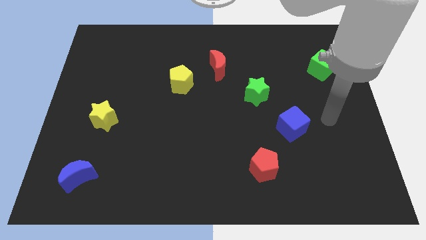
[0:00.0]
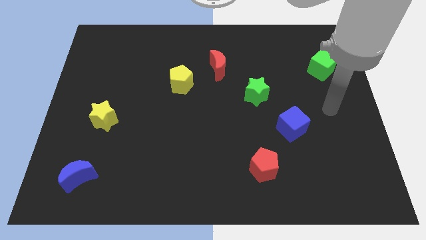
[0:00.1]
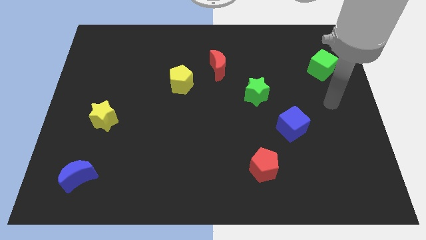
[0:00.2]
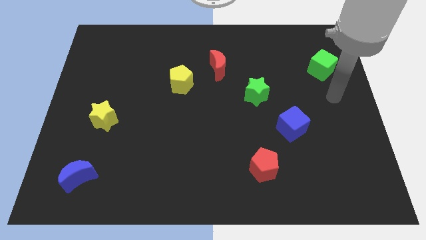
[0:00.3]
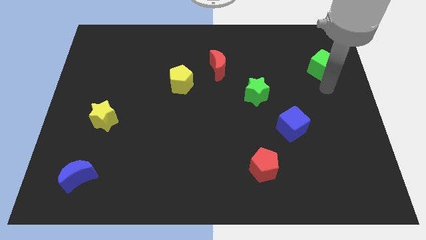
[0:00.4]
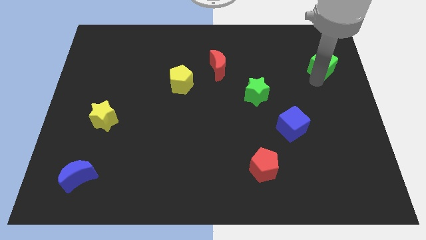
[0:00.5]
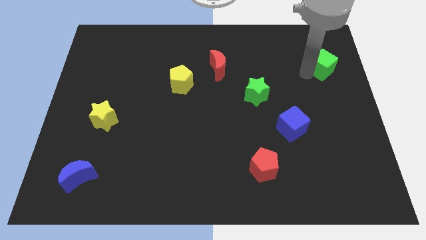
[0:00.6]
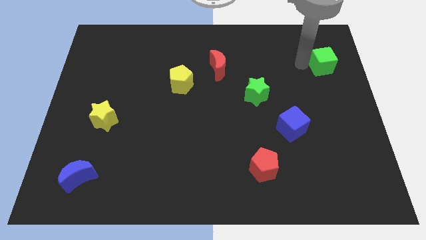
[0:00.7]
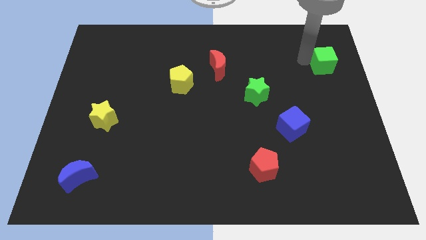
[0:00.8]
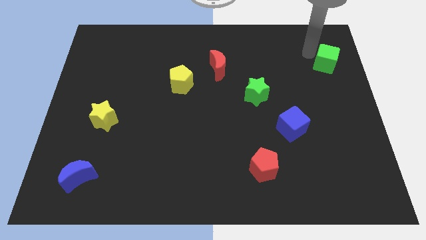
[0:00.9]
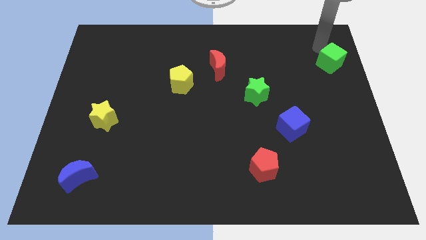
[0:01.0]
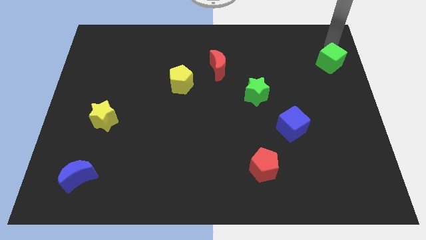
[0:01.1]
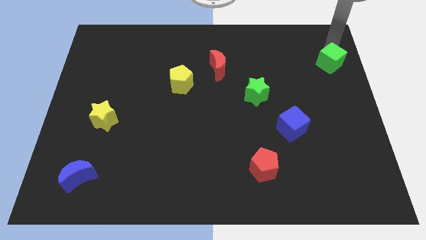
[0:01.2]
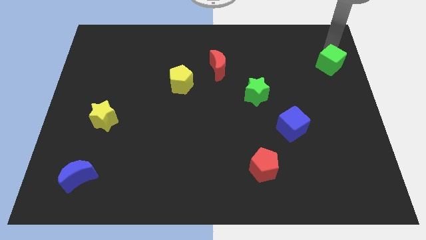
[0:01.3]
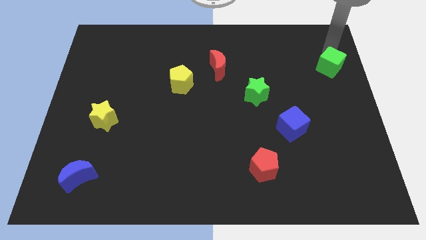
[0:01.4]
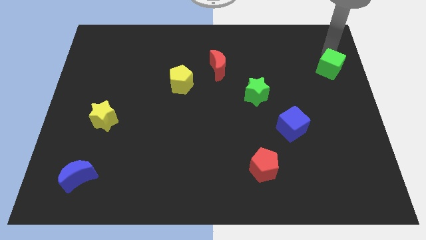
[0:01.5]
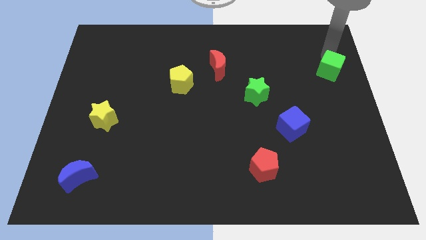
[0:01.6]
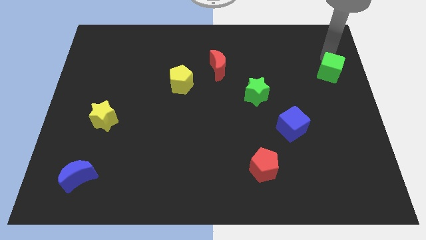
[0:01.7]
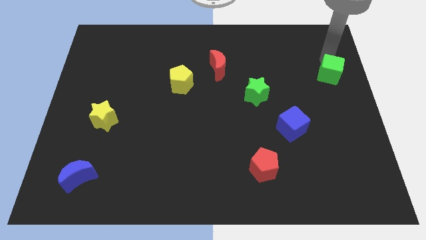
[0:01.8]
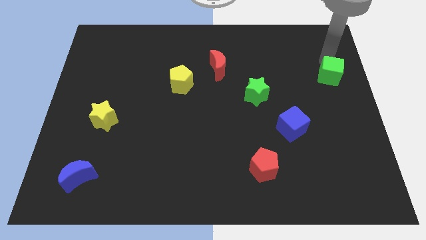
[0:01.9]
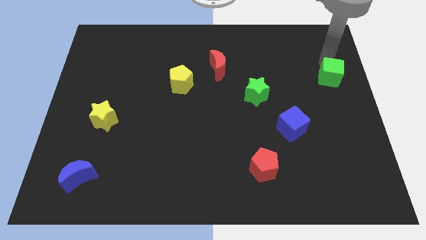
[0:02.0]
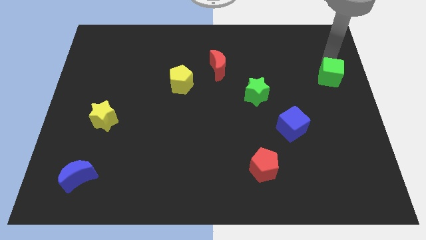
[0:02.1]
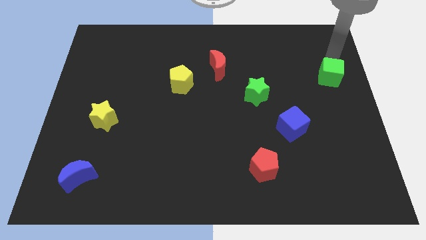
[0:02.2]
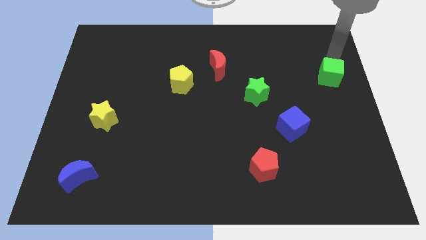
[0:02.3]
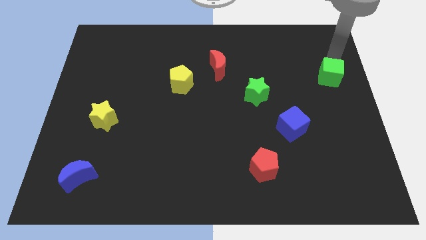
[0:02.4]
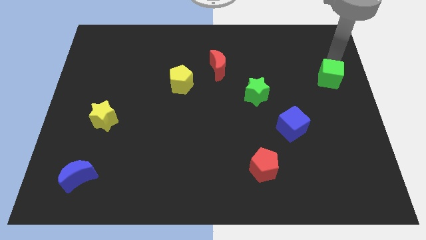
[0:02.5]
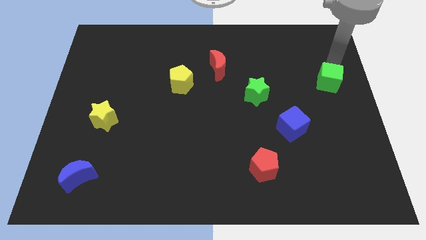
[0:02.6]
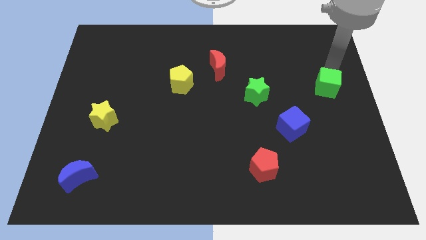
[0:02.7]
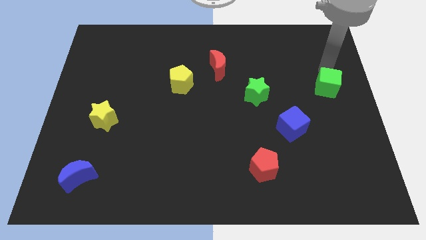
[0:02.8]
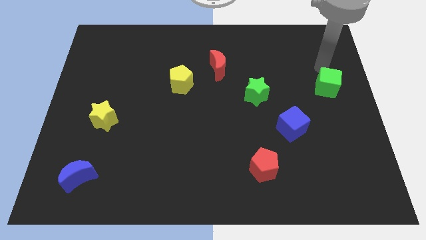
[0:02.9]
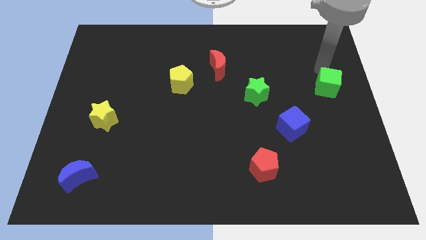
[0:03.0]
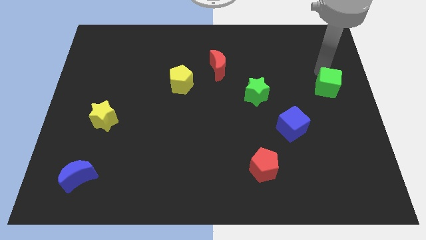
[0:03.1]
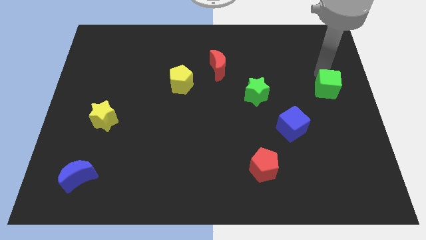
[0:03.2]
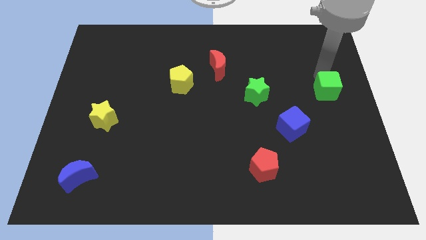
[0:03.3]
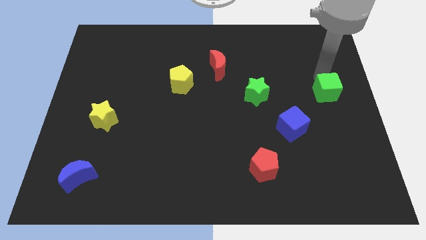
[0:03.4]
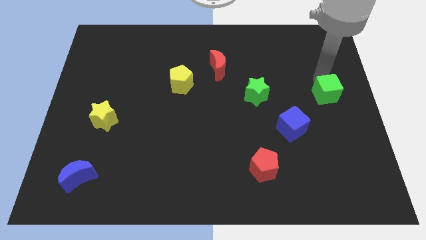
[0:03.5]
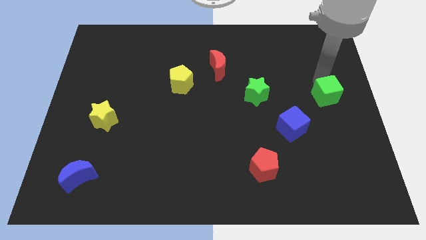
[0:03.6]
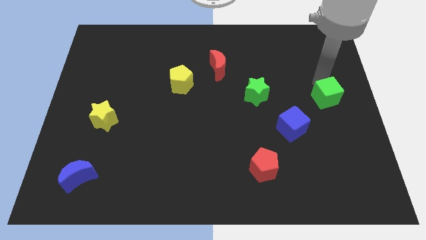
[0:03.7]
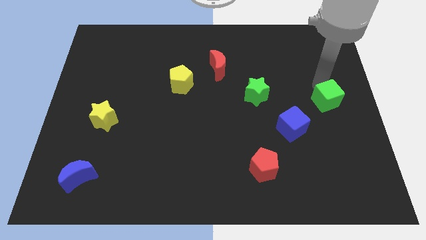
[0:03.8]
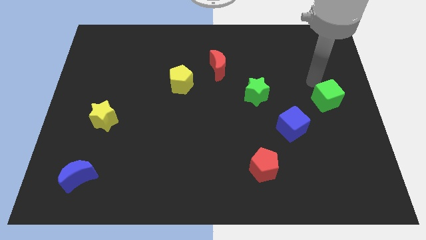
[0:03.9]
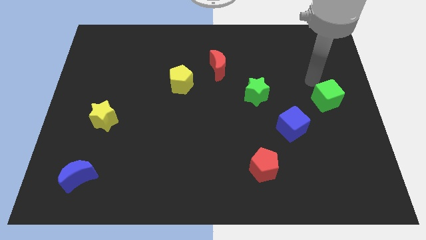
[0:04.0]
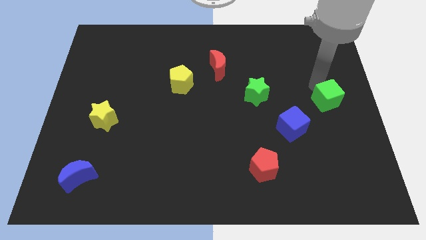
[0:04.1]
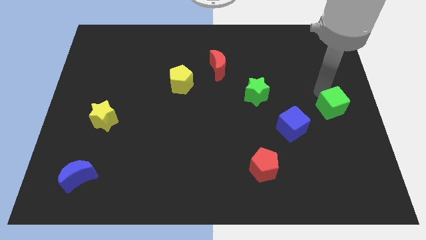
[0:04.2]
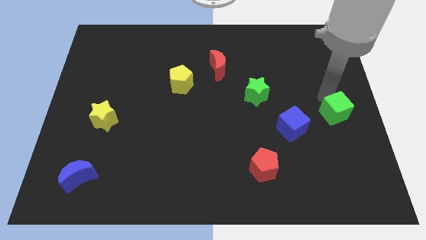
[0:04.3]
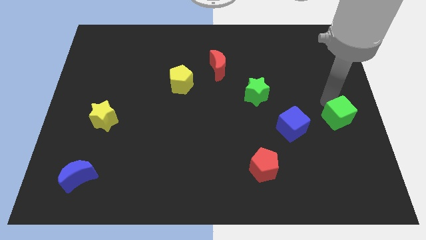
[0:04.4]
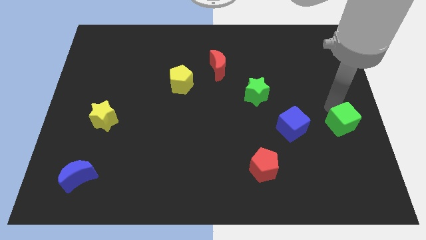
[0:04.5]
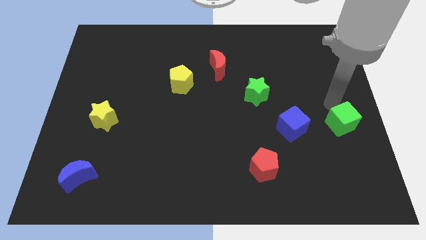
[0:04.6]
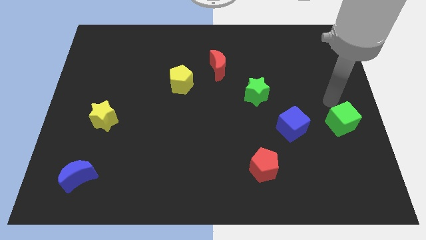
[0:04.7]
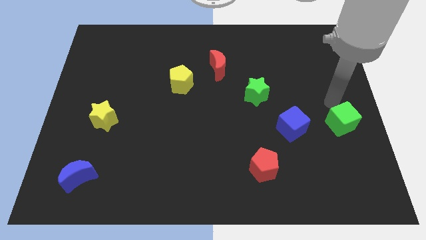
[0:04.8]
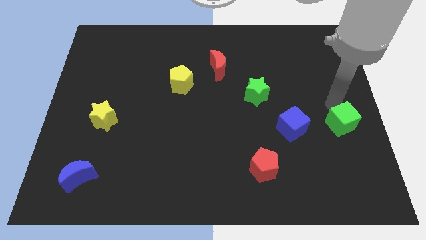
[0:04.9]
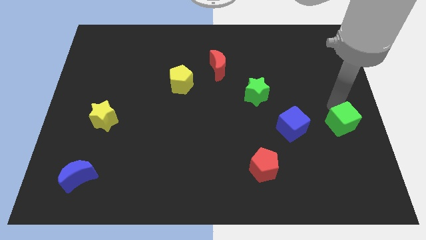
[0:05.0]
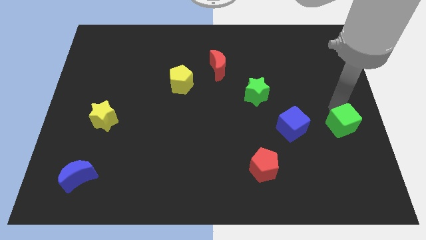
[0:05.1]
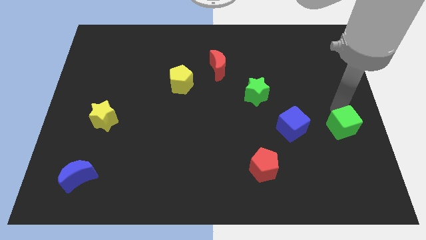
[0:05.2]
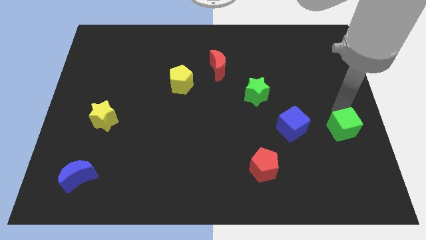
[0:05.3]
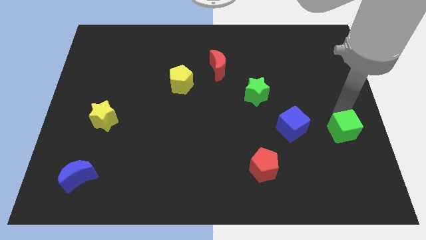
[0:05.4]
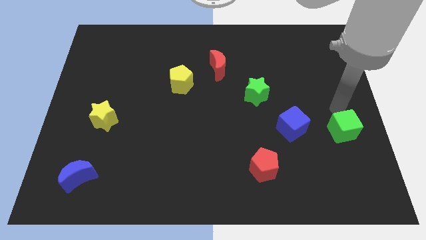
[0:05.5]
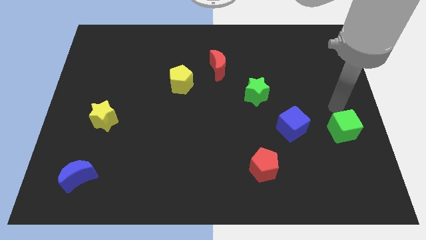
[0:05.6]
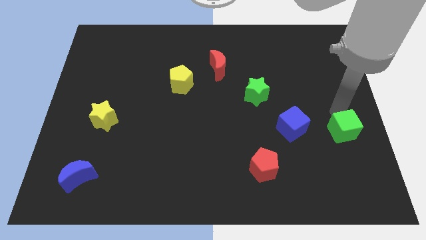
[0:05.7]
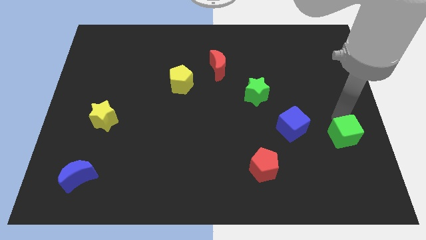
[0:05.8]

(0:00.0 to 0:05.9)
move the green cube down

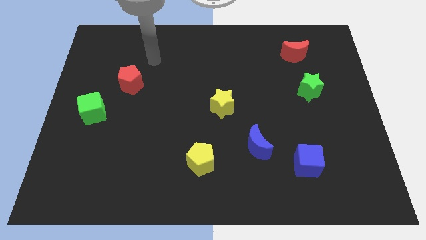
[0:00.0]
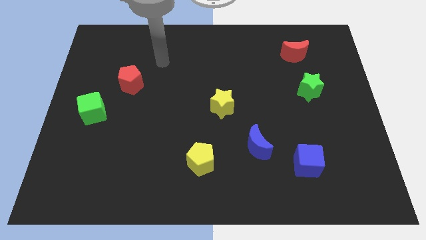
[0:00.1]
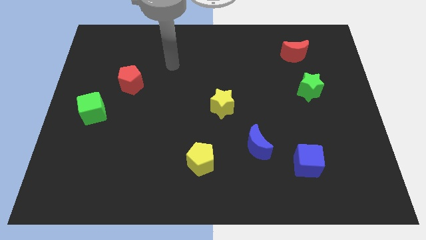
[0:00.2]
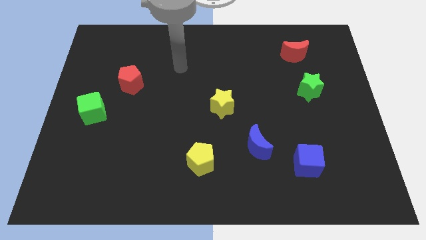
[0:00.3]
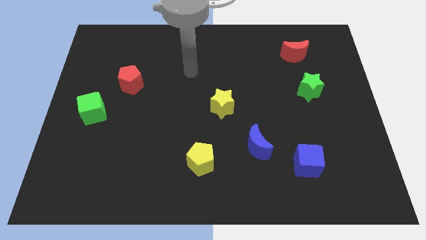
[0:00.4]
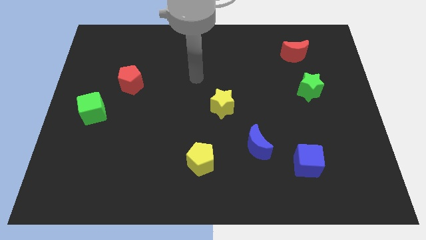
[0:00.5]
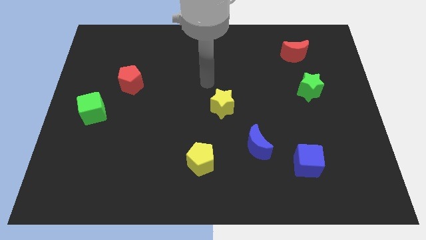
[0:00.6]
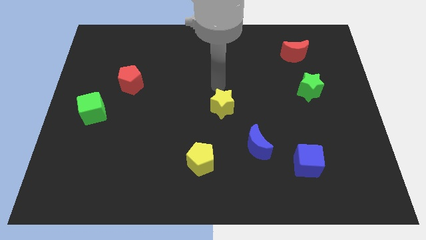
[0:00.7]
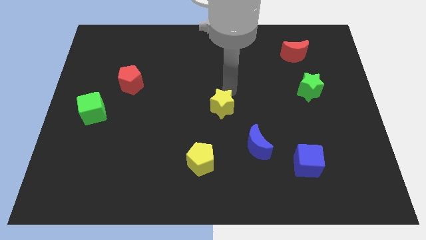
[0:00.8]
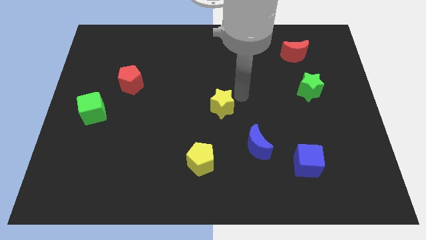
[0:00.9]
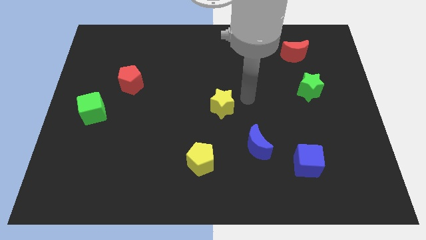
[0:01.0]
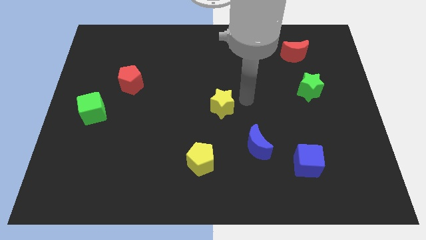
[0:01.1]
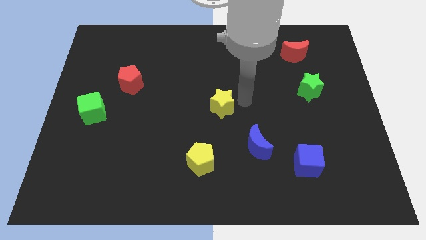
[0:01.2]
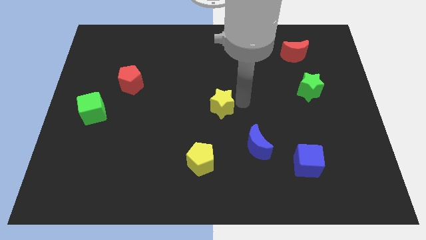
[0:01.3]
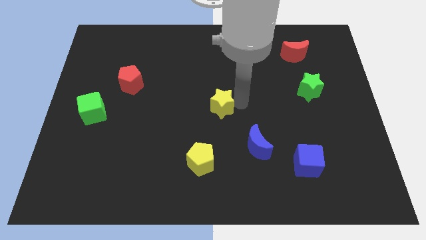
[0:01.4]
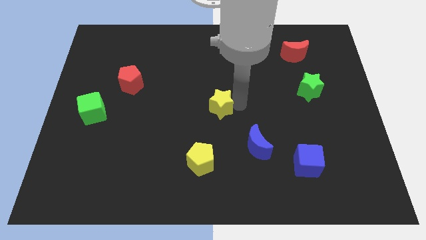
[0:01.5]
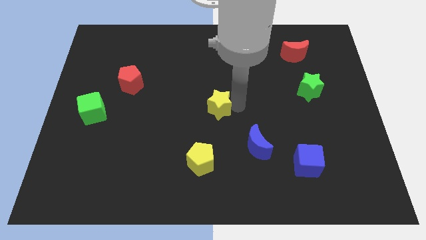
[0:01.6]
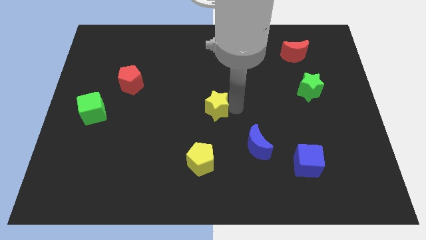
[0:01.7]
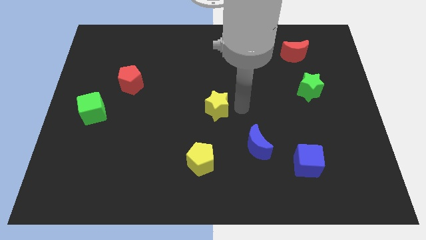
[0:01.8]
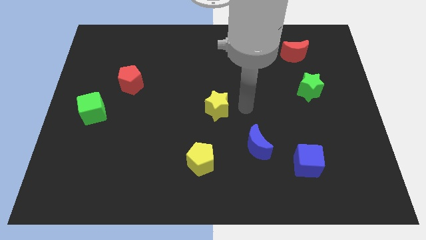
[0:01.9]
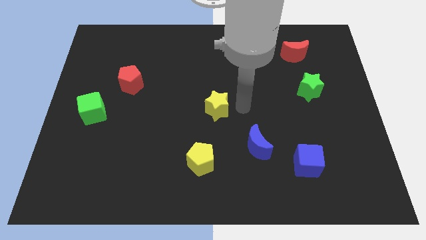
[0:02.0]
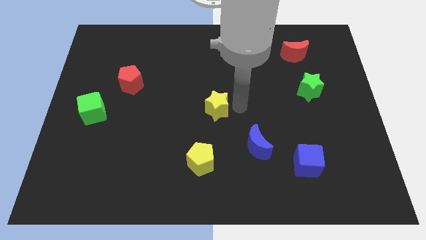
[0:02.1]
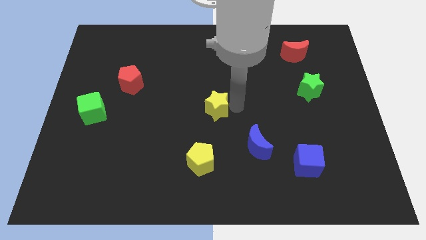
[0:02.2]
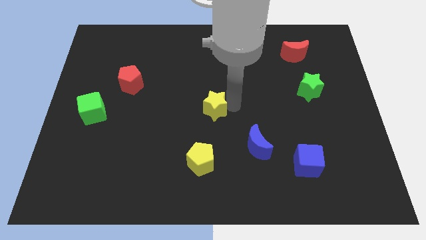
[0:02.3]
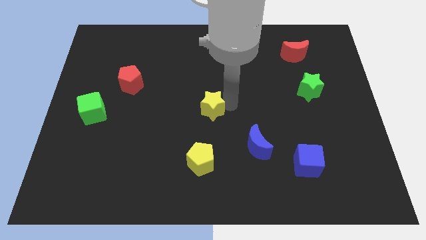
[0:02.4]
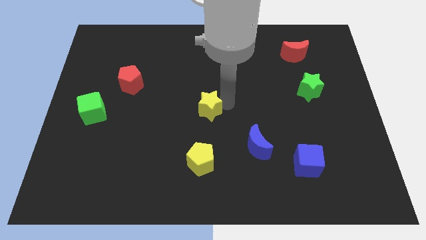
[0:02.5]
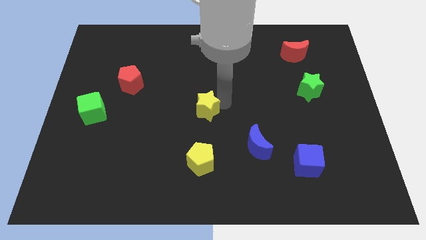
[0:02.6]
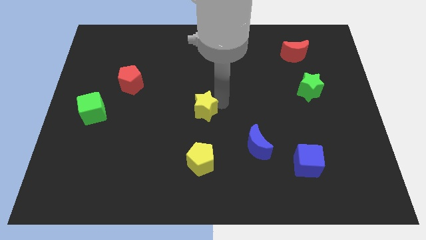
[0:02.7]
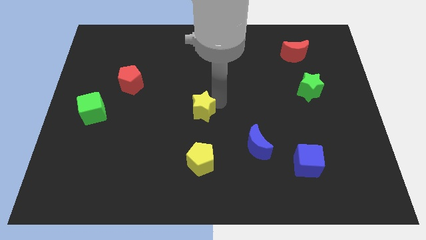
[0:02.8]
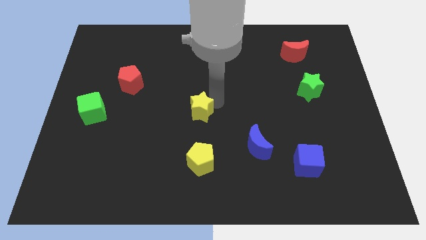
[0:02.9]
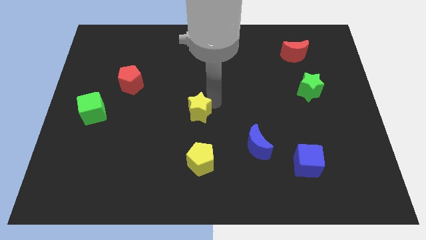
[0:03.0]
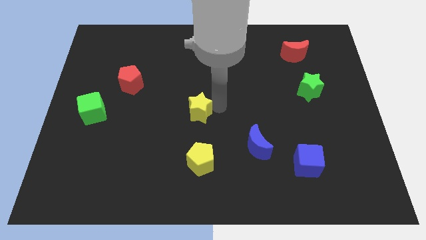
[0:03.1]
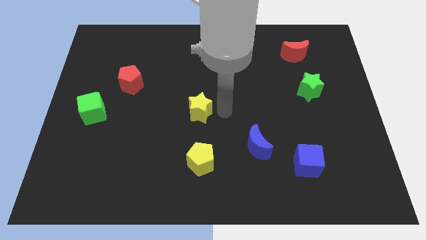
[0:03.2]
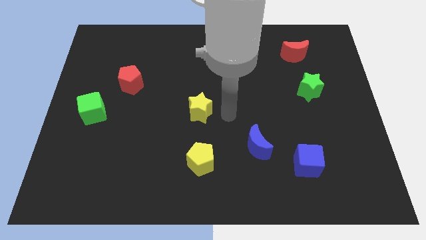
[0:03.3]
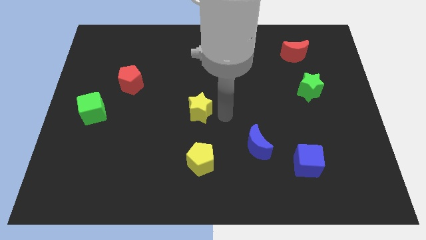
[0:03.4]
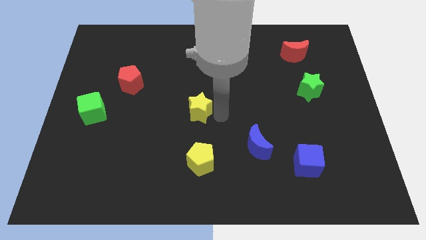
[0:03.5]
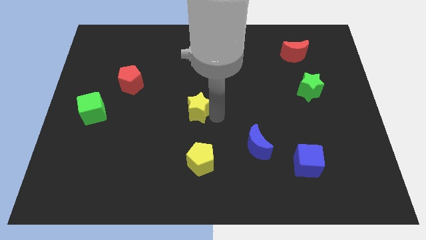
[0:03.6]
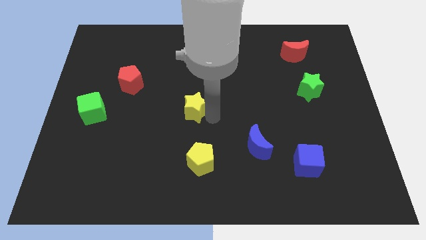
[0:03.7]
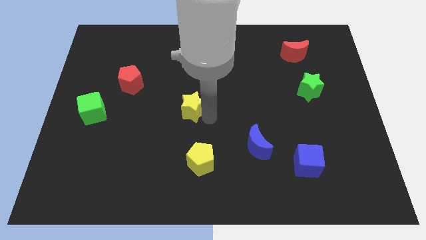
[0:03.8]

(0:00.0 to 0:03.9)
slightly slide the yellow star to the left
